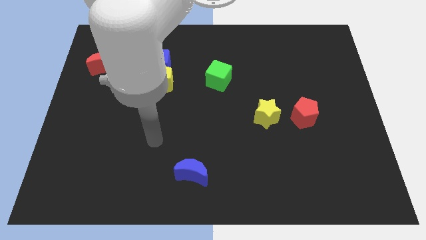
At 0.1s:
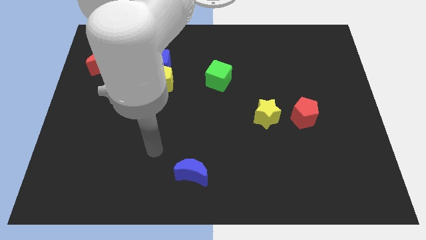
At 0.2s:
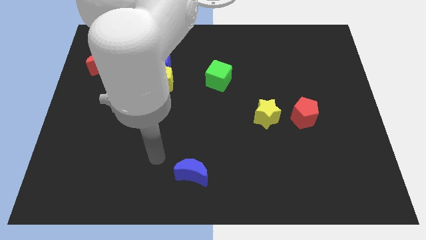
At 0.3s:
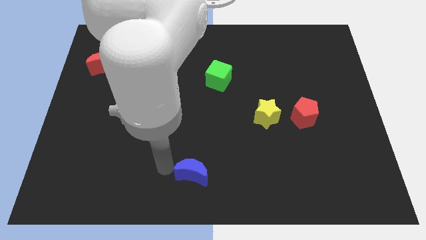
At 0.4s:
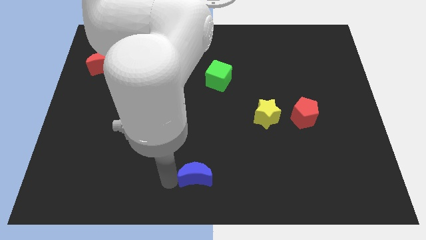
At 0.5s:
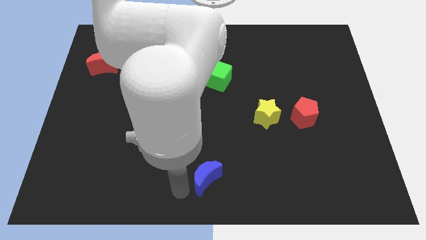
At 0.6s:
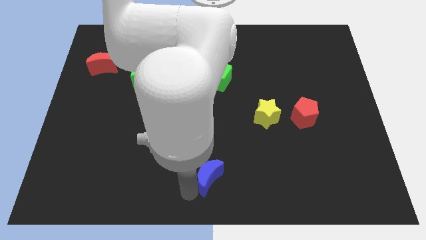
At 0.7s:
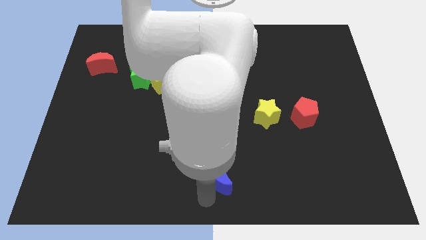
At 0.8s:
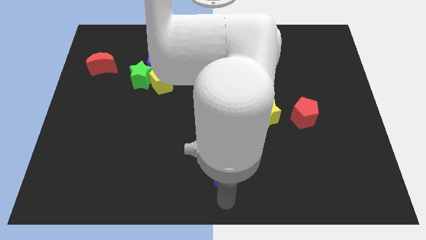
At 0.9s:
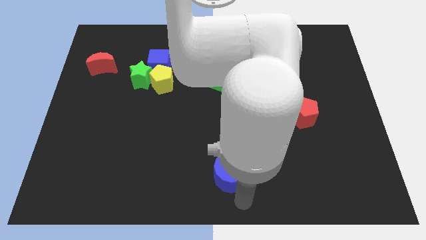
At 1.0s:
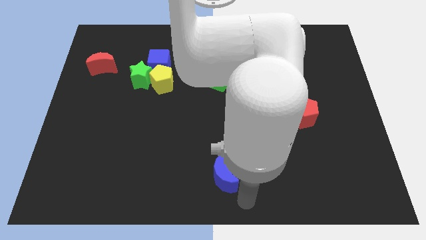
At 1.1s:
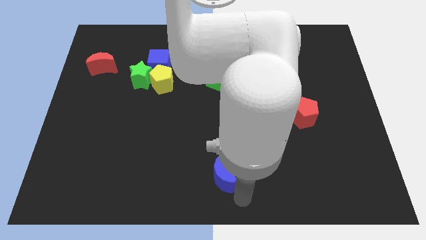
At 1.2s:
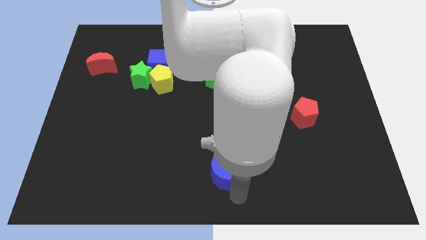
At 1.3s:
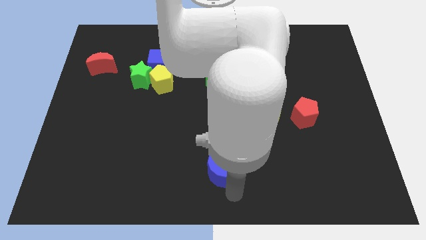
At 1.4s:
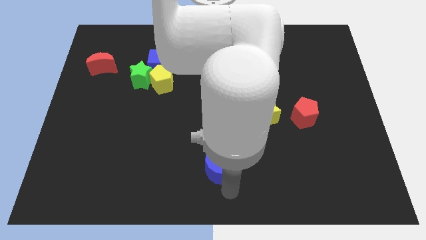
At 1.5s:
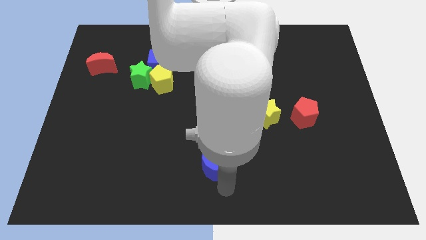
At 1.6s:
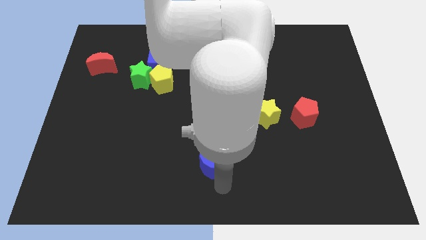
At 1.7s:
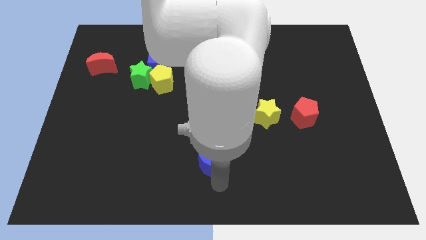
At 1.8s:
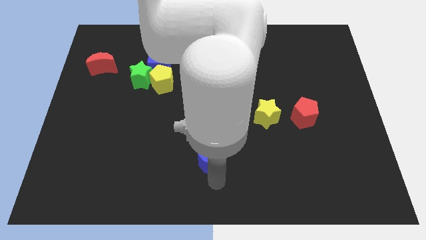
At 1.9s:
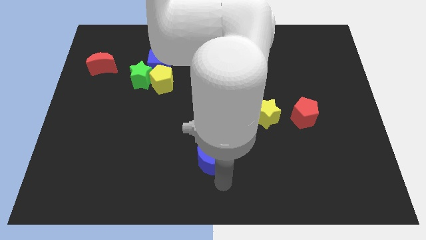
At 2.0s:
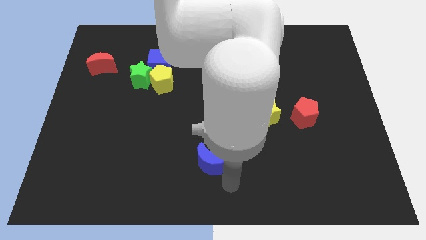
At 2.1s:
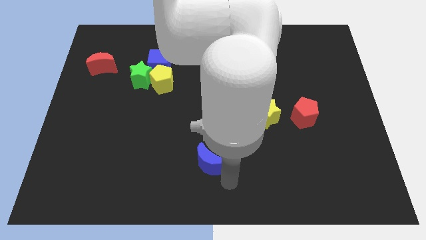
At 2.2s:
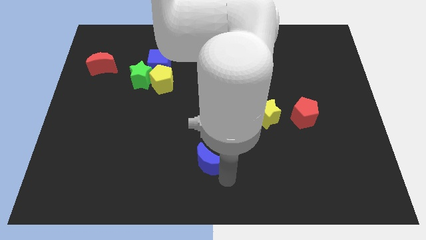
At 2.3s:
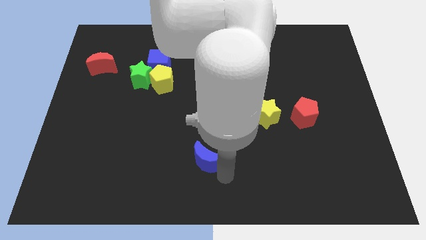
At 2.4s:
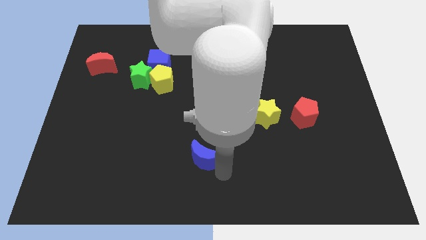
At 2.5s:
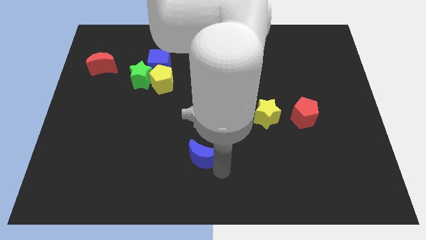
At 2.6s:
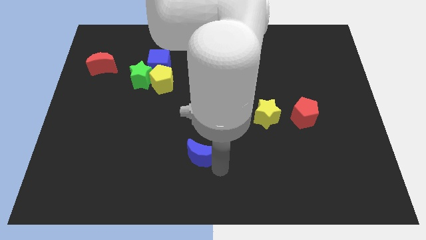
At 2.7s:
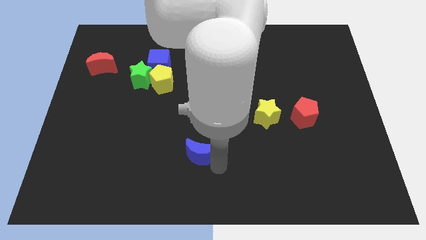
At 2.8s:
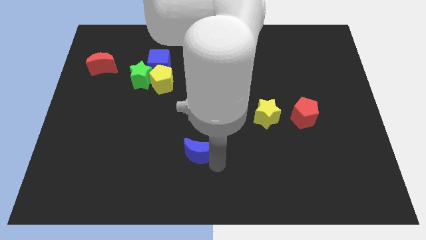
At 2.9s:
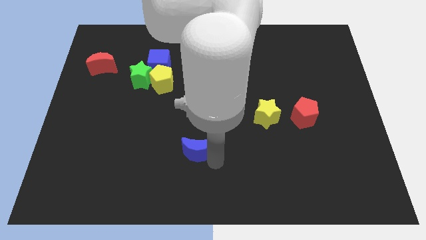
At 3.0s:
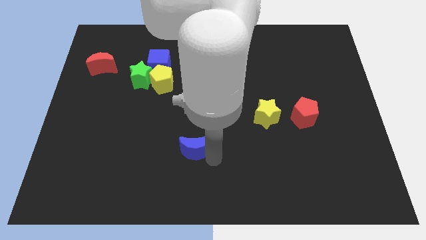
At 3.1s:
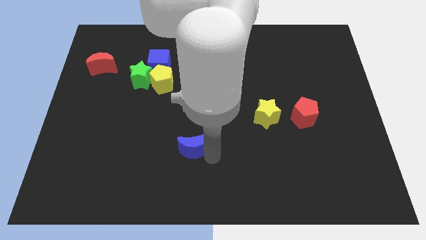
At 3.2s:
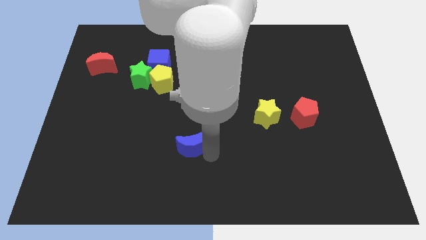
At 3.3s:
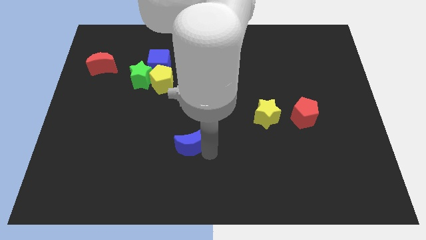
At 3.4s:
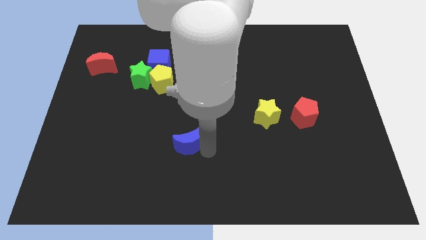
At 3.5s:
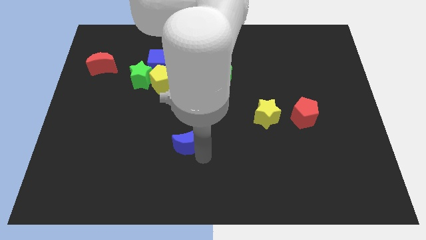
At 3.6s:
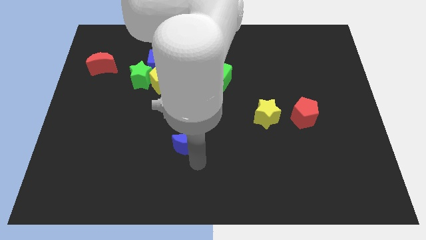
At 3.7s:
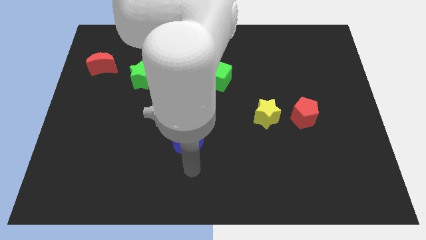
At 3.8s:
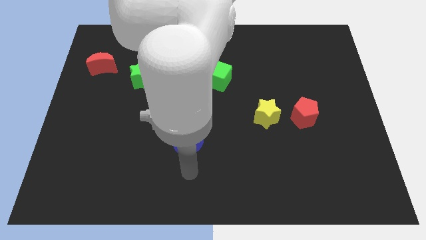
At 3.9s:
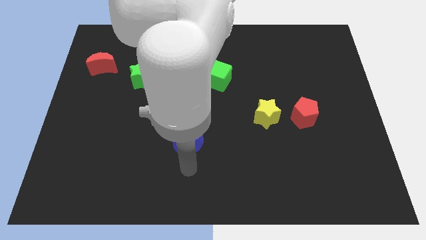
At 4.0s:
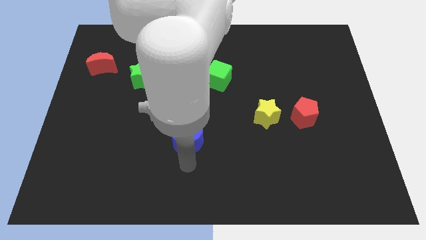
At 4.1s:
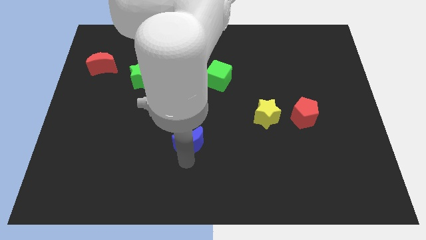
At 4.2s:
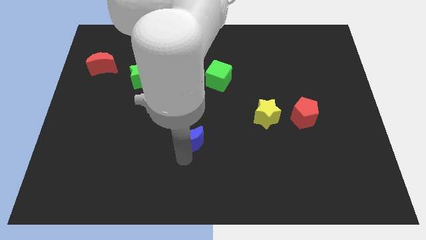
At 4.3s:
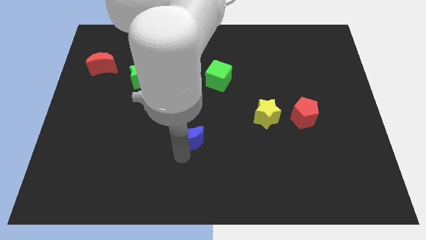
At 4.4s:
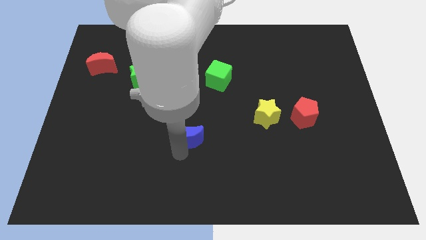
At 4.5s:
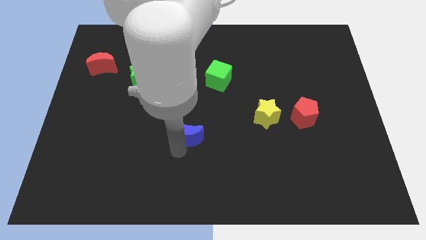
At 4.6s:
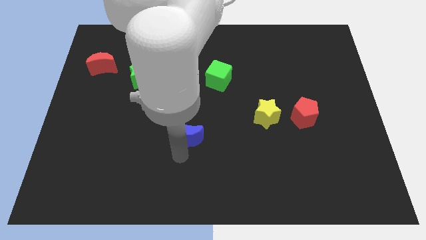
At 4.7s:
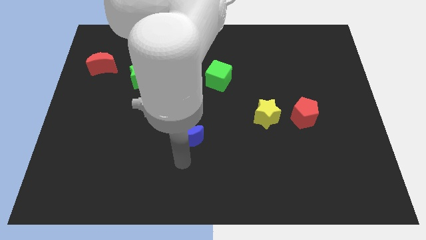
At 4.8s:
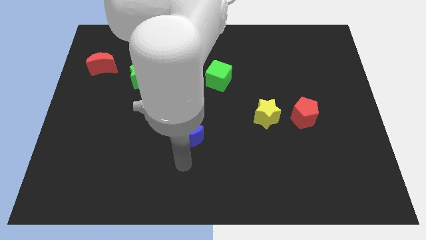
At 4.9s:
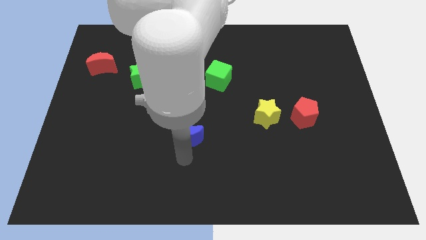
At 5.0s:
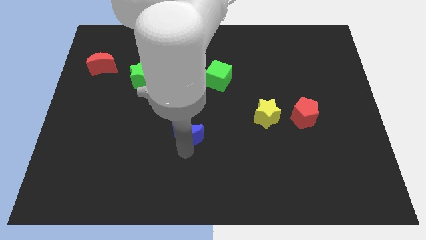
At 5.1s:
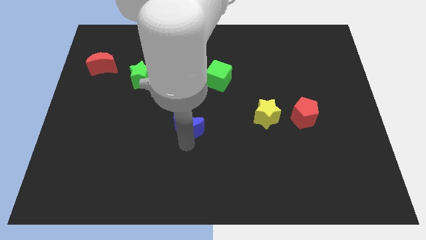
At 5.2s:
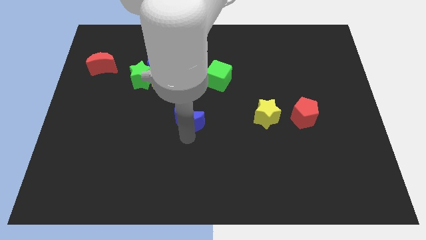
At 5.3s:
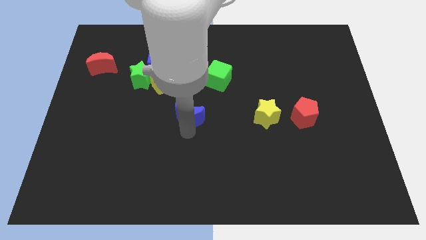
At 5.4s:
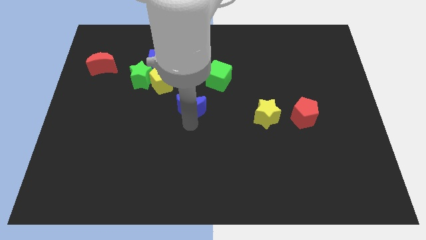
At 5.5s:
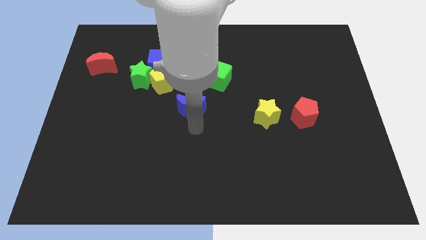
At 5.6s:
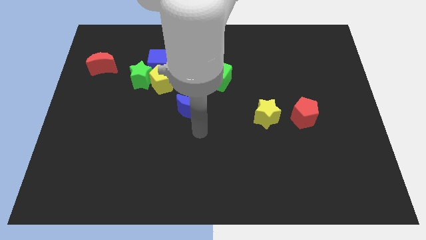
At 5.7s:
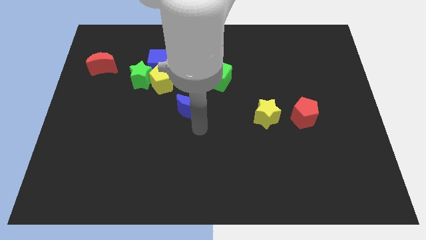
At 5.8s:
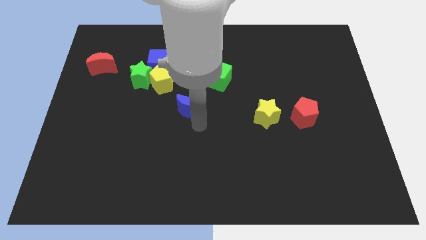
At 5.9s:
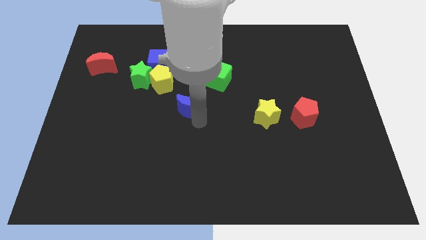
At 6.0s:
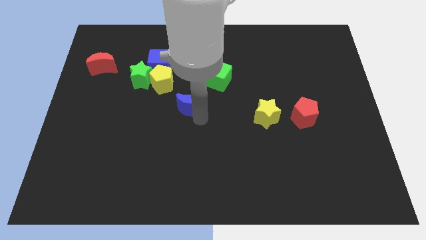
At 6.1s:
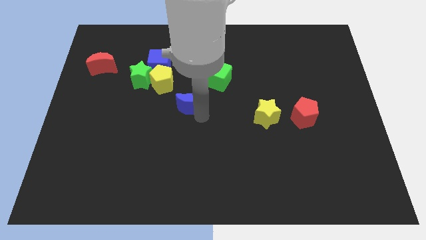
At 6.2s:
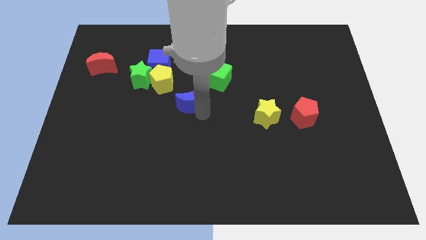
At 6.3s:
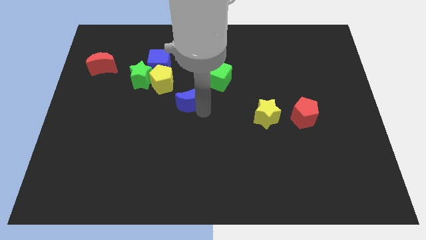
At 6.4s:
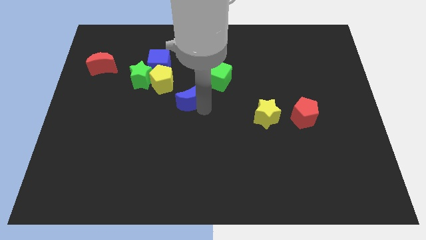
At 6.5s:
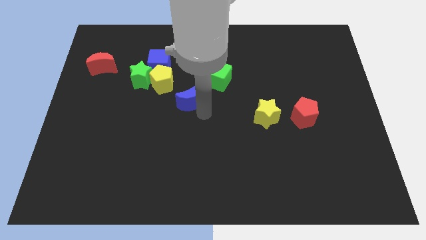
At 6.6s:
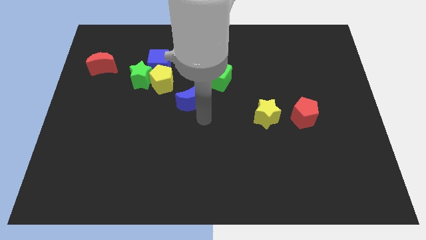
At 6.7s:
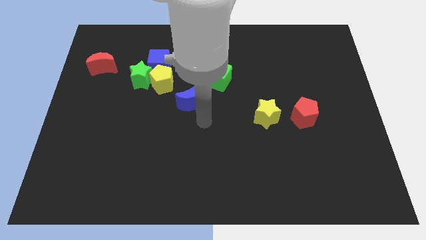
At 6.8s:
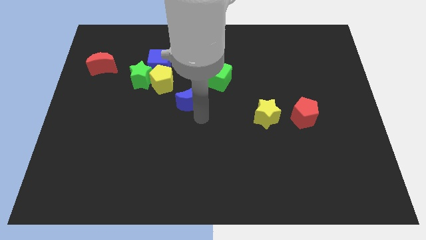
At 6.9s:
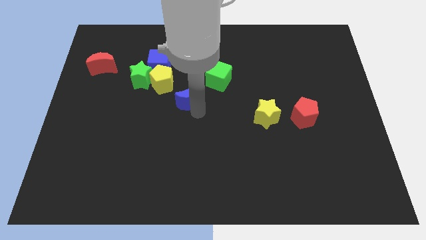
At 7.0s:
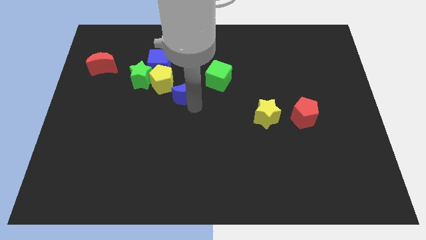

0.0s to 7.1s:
slide the blue moon diagonally down and to the right of the blue cube

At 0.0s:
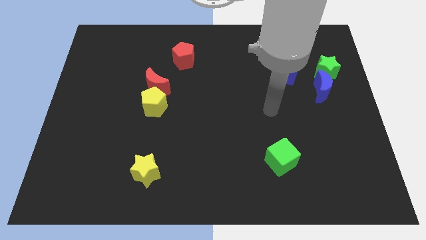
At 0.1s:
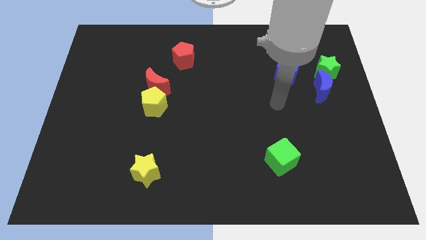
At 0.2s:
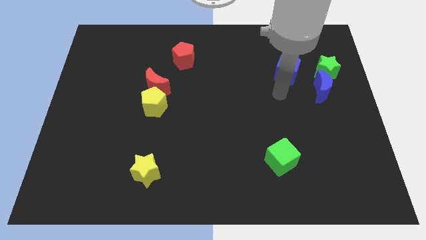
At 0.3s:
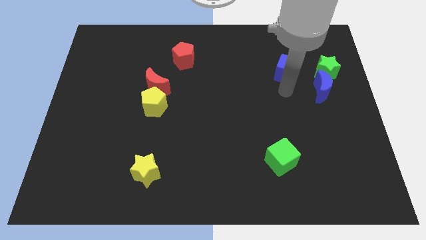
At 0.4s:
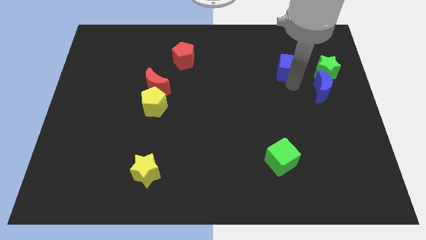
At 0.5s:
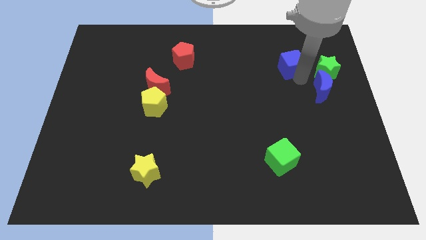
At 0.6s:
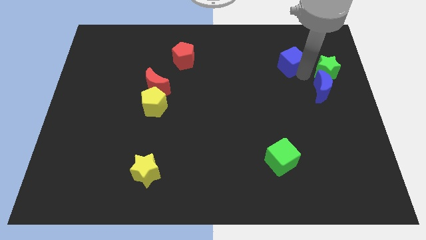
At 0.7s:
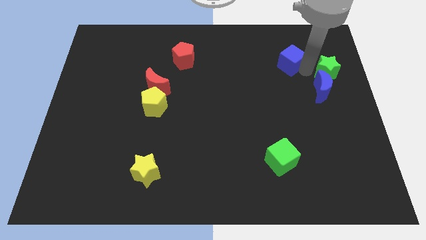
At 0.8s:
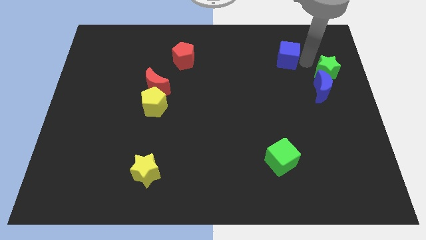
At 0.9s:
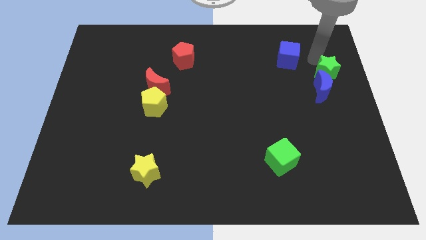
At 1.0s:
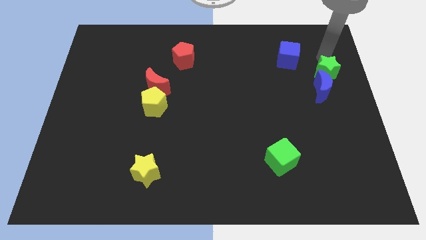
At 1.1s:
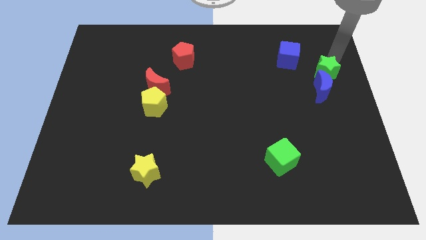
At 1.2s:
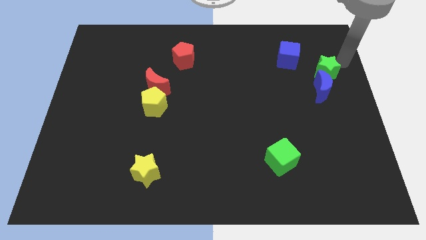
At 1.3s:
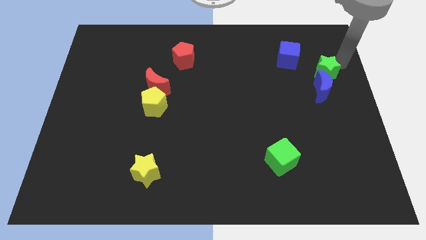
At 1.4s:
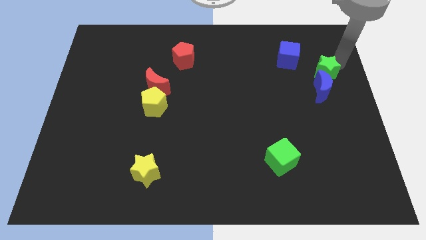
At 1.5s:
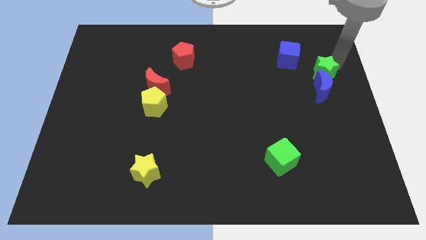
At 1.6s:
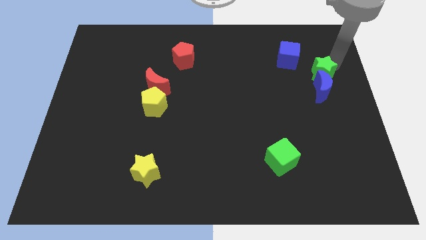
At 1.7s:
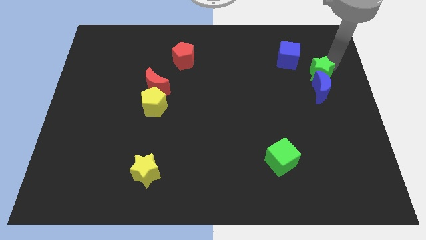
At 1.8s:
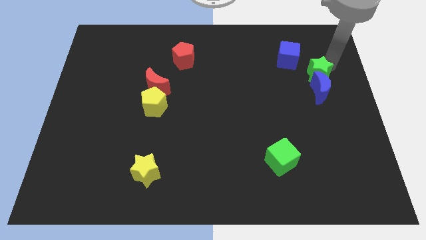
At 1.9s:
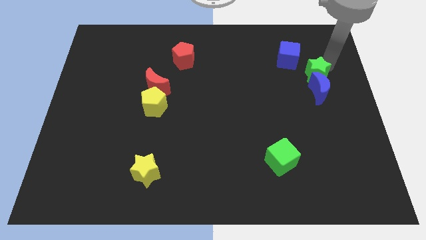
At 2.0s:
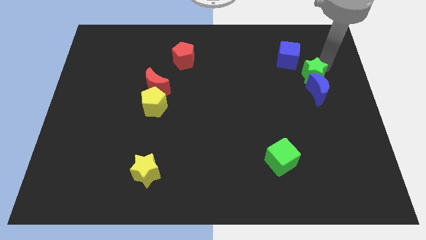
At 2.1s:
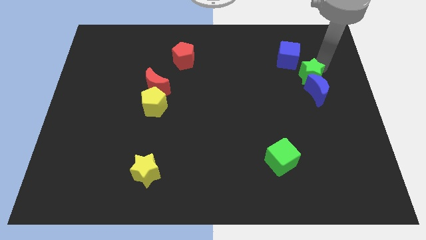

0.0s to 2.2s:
put the green star to the bottom side of the blue cube
